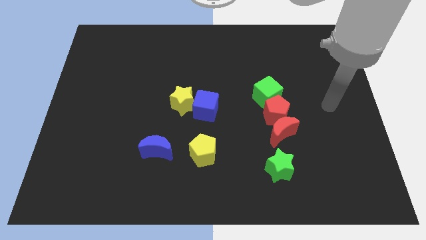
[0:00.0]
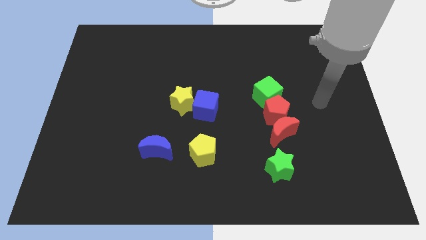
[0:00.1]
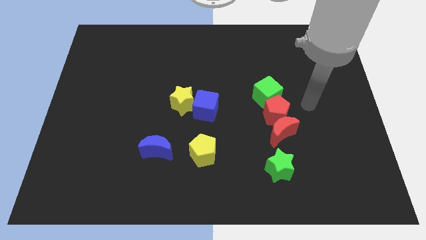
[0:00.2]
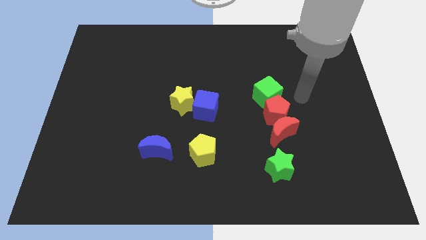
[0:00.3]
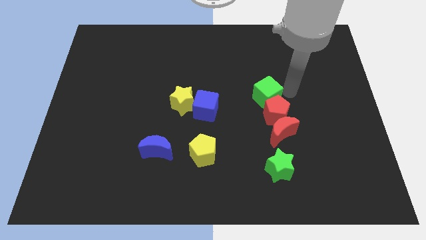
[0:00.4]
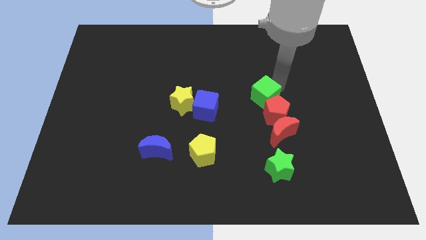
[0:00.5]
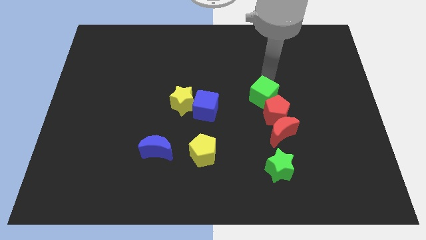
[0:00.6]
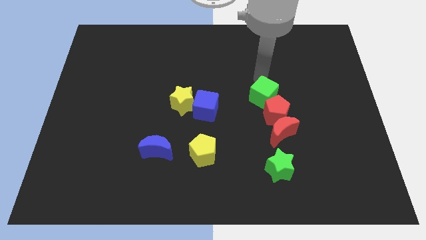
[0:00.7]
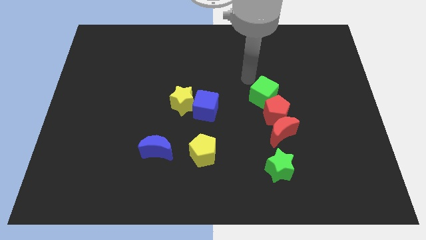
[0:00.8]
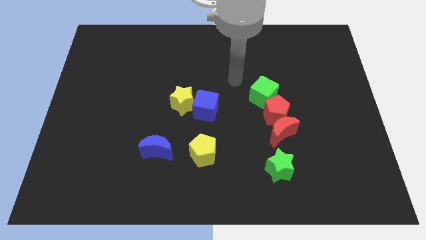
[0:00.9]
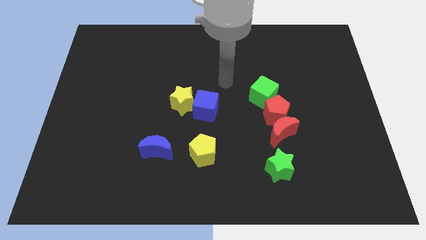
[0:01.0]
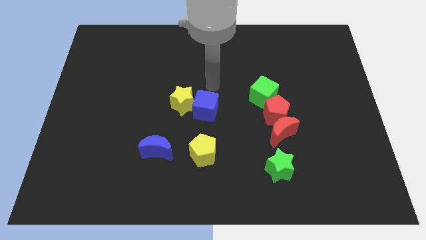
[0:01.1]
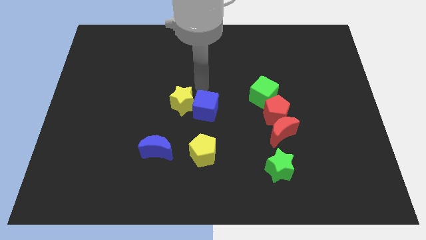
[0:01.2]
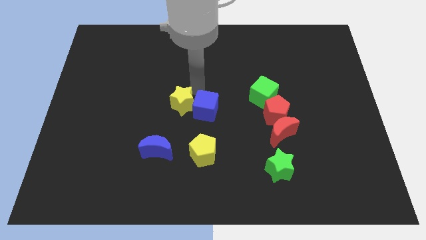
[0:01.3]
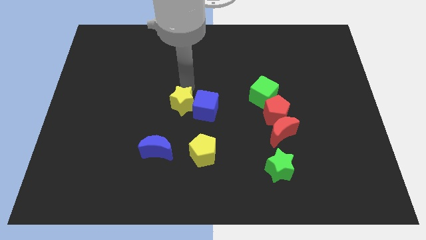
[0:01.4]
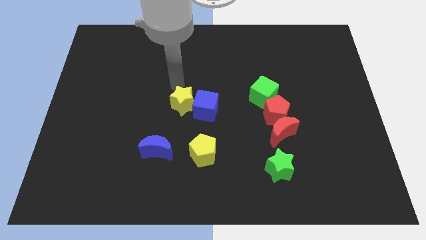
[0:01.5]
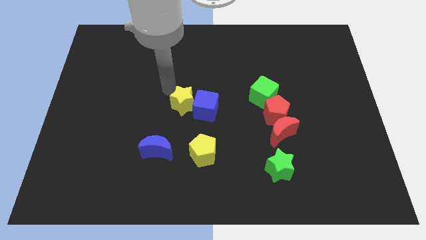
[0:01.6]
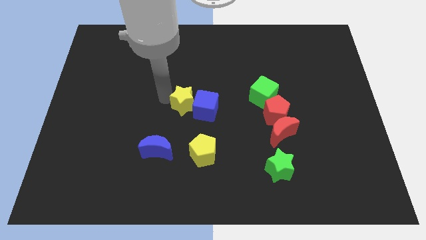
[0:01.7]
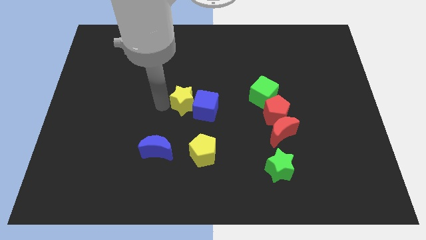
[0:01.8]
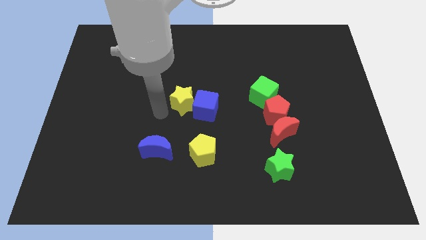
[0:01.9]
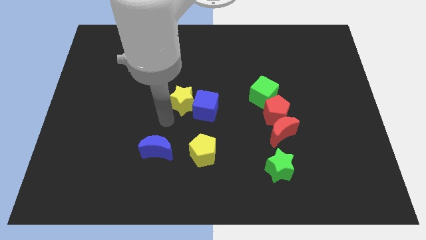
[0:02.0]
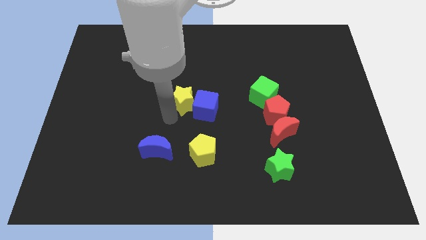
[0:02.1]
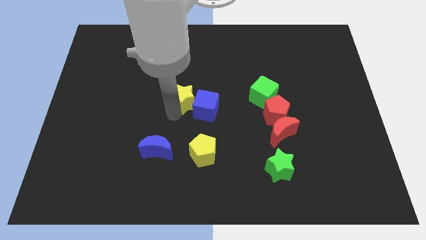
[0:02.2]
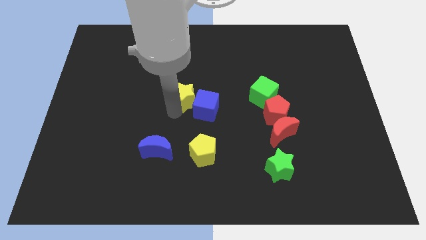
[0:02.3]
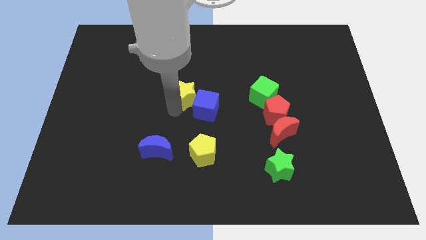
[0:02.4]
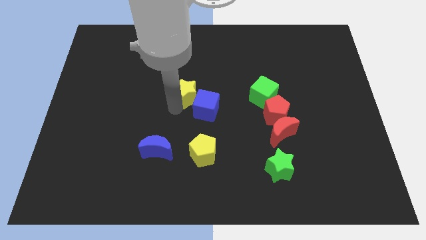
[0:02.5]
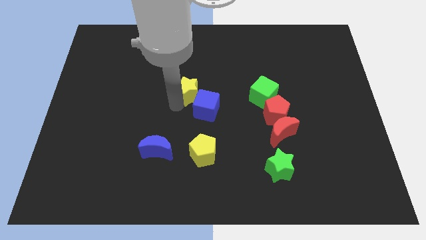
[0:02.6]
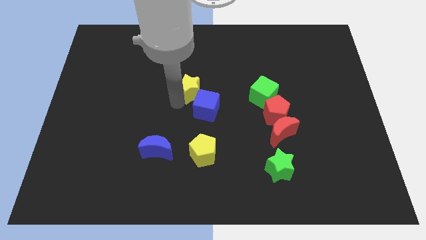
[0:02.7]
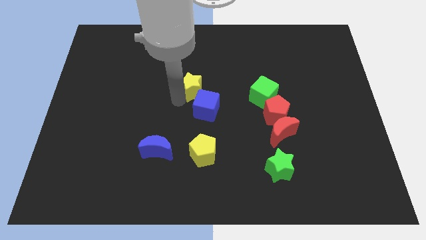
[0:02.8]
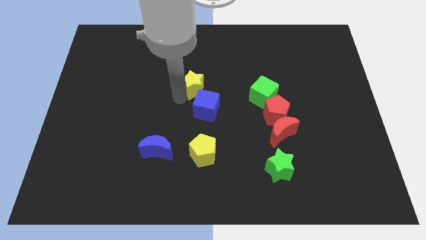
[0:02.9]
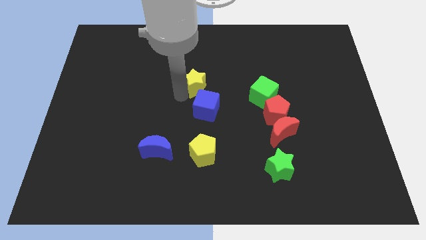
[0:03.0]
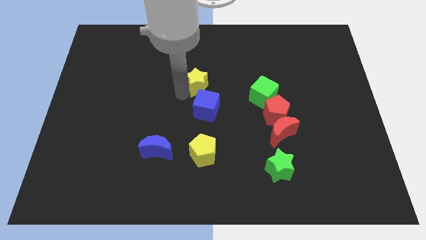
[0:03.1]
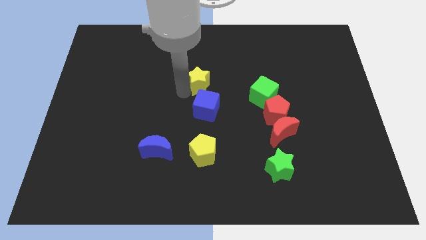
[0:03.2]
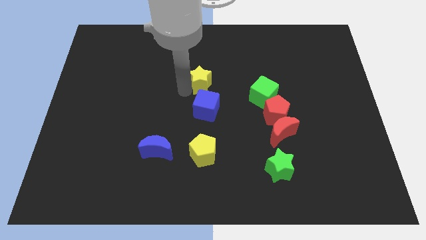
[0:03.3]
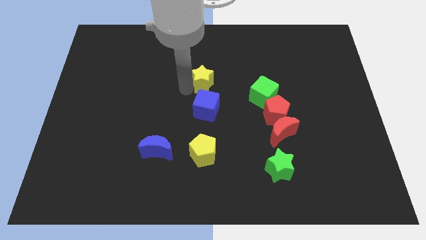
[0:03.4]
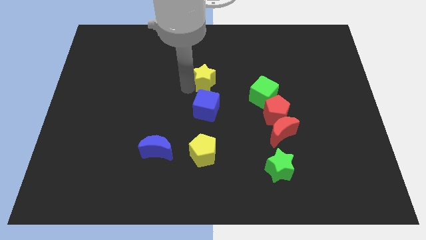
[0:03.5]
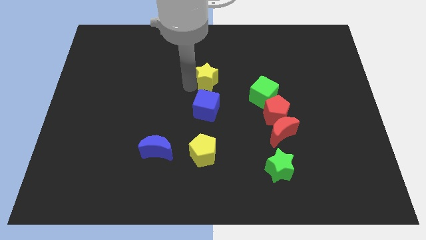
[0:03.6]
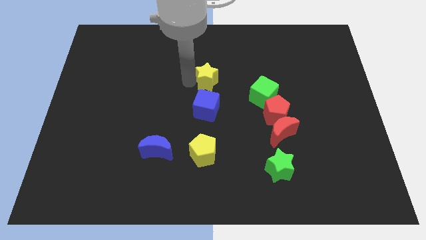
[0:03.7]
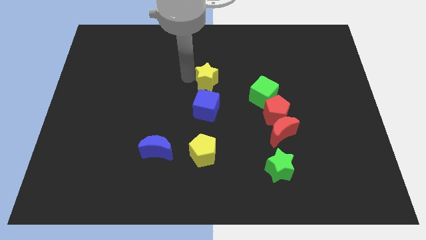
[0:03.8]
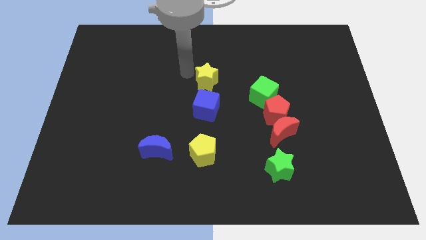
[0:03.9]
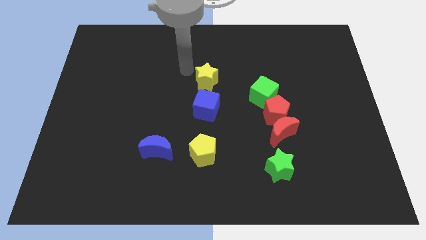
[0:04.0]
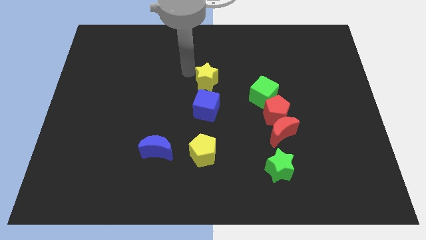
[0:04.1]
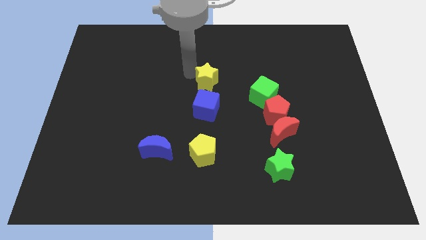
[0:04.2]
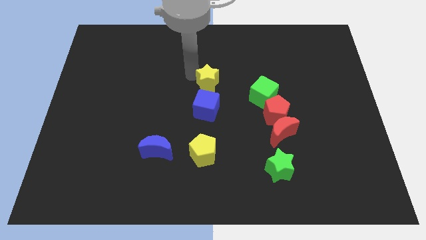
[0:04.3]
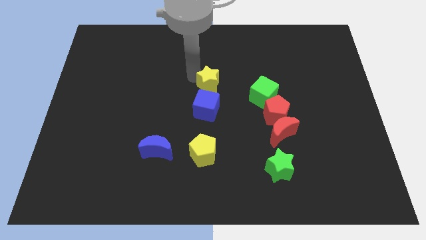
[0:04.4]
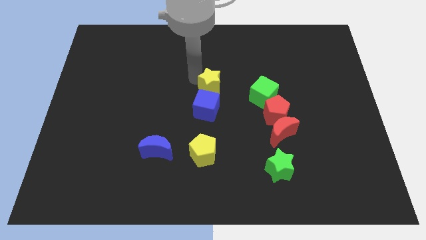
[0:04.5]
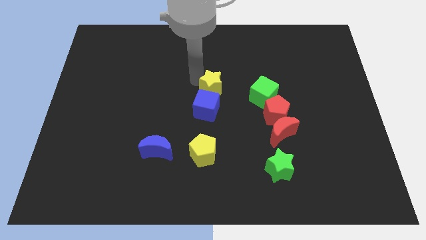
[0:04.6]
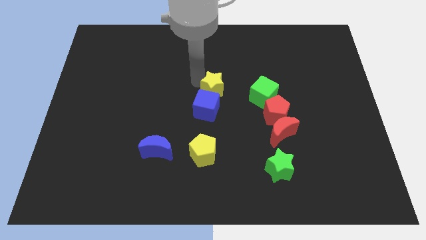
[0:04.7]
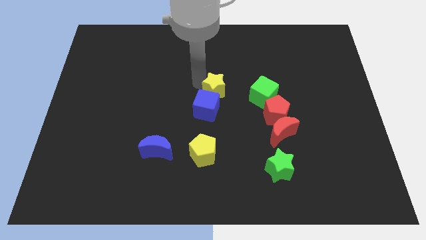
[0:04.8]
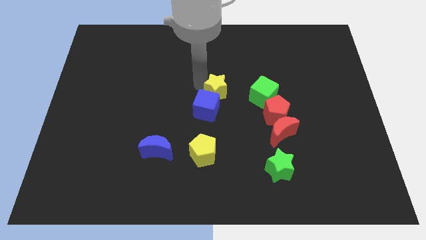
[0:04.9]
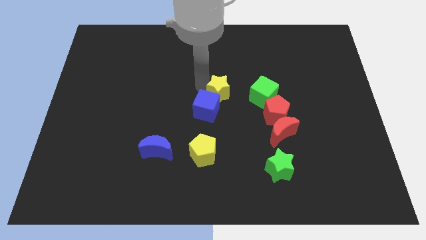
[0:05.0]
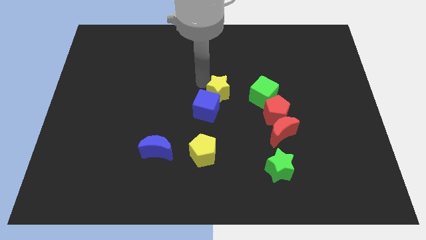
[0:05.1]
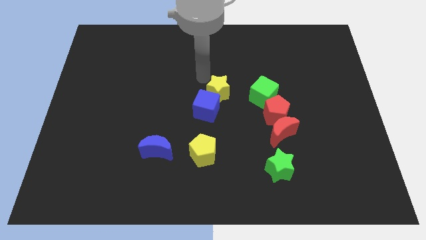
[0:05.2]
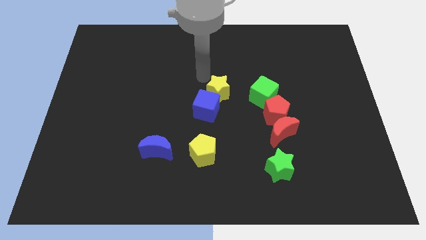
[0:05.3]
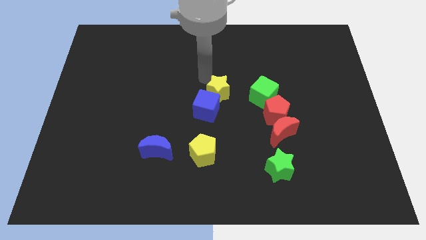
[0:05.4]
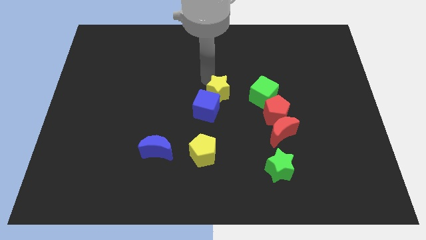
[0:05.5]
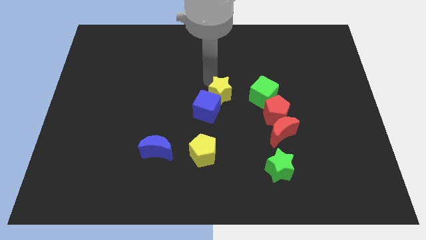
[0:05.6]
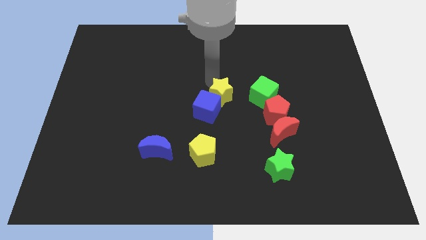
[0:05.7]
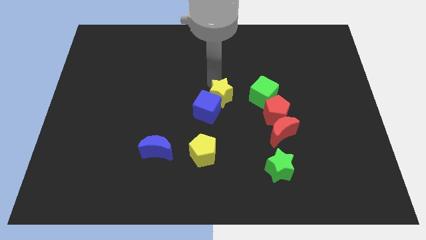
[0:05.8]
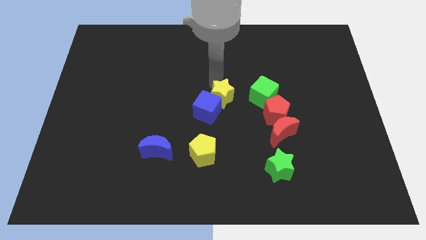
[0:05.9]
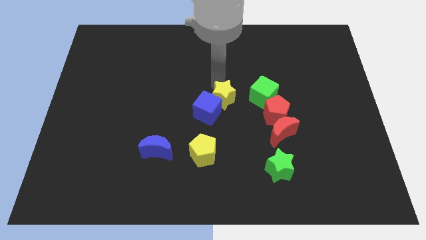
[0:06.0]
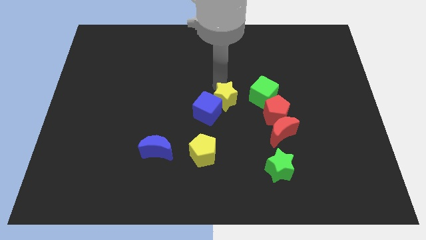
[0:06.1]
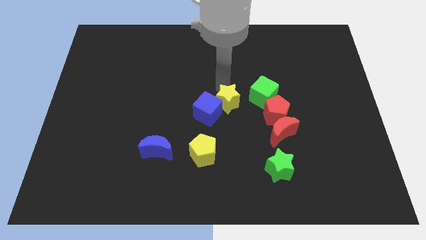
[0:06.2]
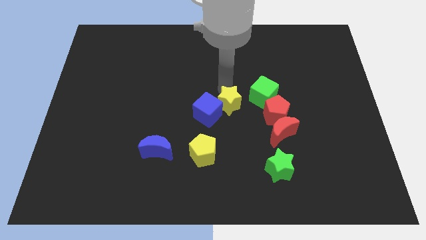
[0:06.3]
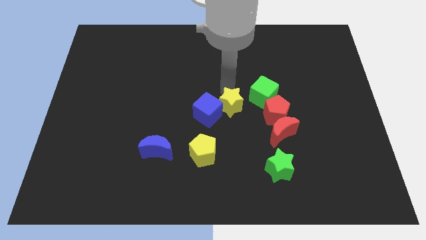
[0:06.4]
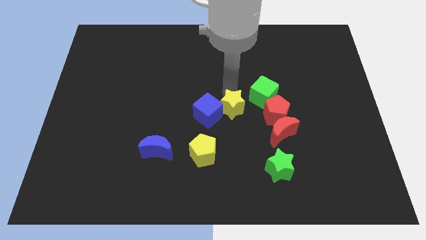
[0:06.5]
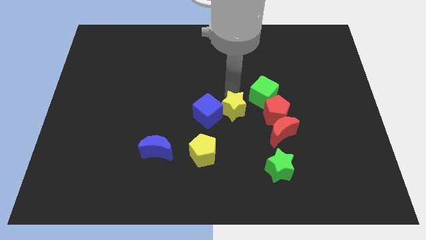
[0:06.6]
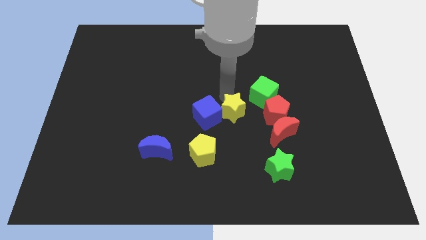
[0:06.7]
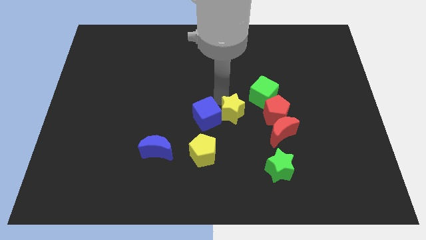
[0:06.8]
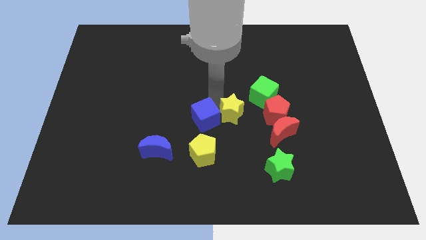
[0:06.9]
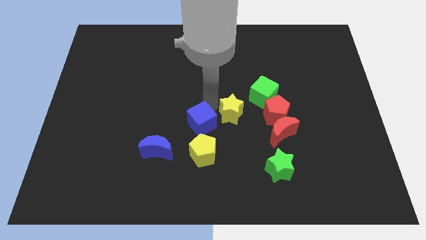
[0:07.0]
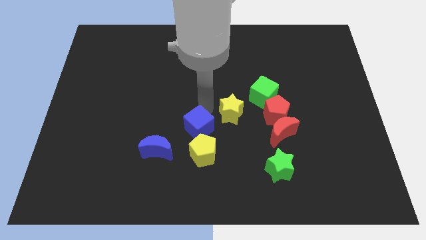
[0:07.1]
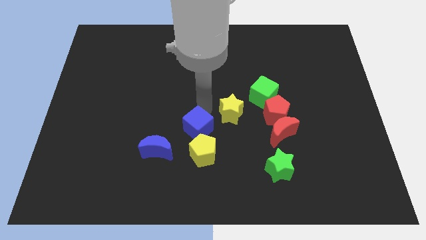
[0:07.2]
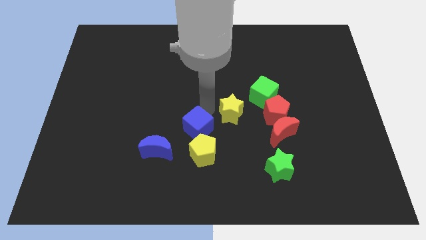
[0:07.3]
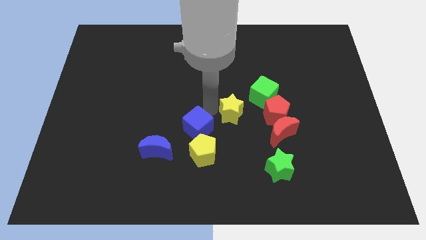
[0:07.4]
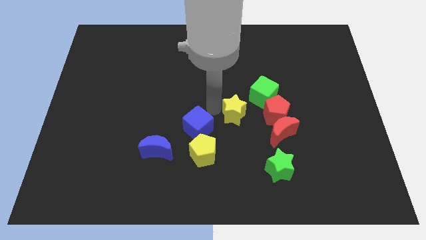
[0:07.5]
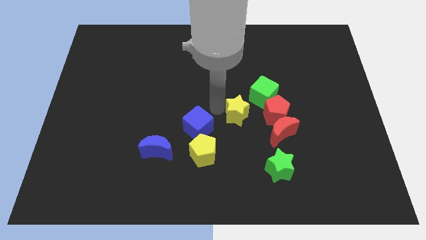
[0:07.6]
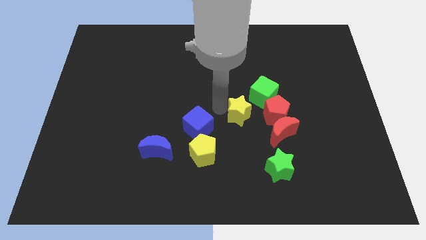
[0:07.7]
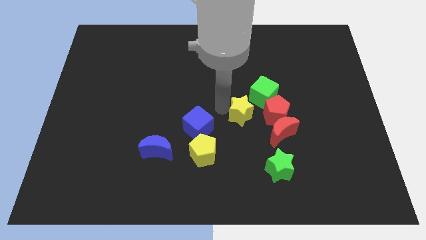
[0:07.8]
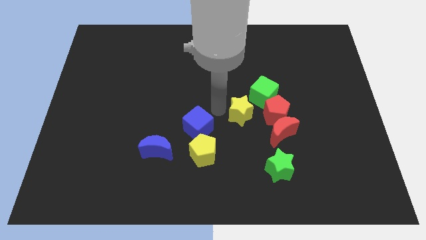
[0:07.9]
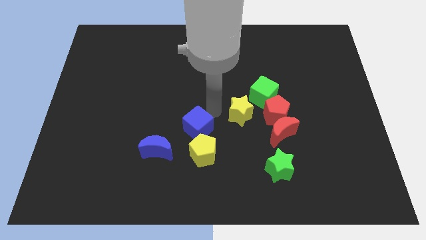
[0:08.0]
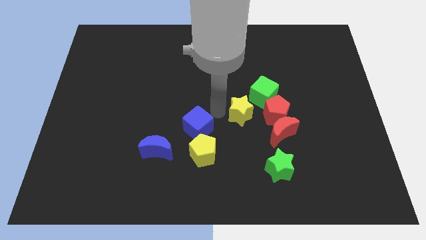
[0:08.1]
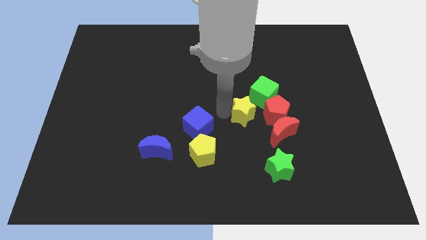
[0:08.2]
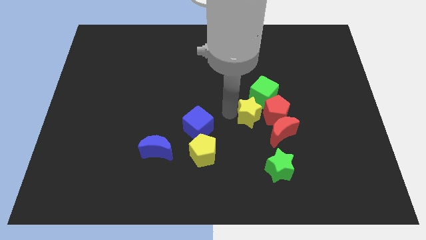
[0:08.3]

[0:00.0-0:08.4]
slide the yellow star towards the red pentagon
